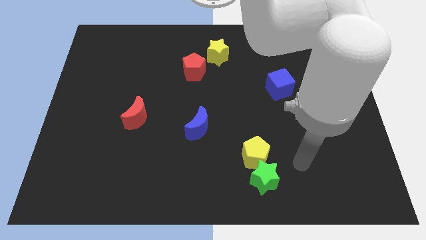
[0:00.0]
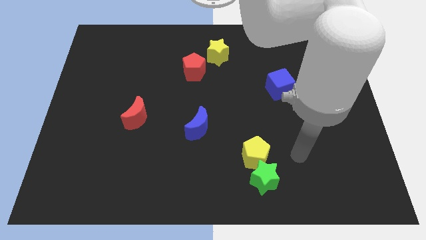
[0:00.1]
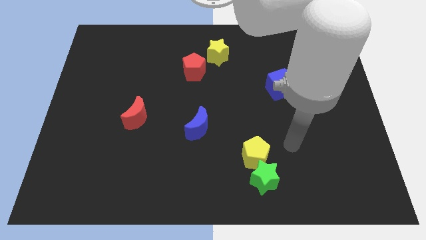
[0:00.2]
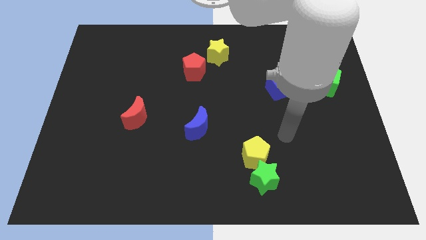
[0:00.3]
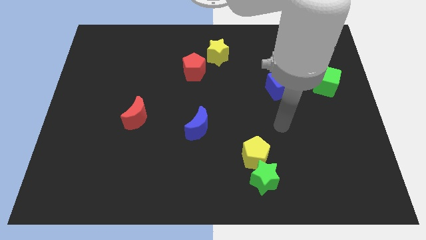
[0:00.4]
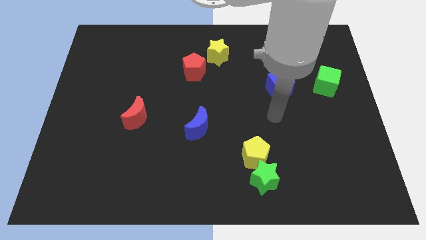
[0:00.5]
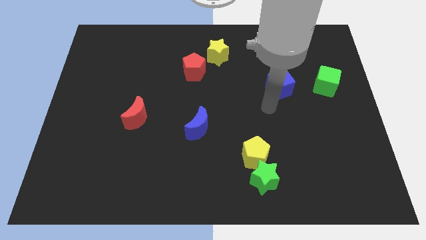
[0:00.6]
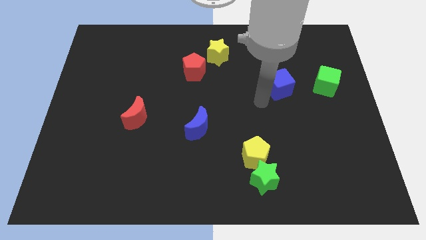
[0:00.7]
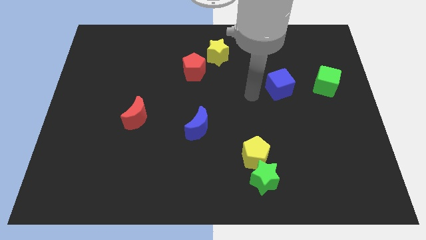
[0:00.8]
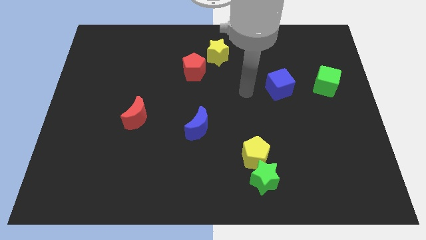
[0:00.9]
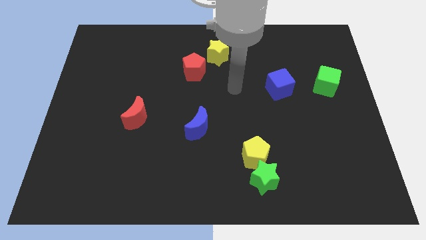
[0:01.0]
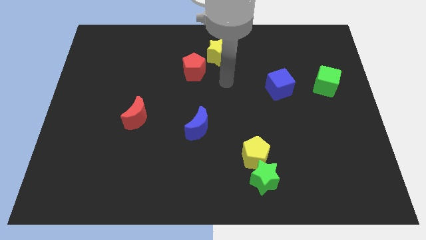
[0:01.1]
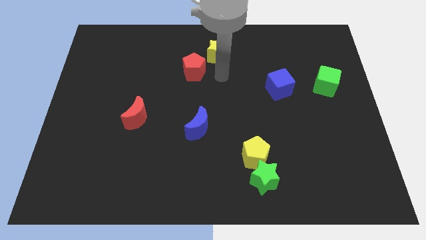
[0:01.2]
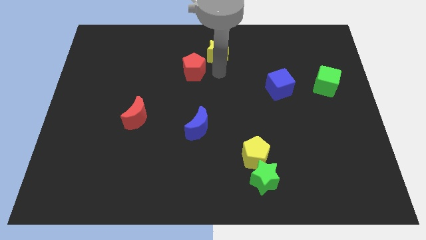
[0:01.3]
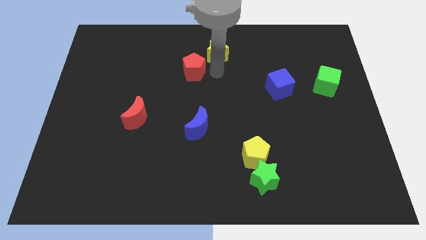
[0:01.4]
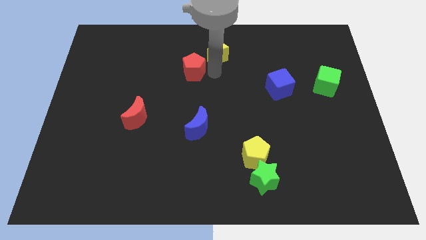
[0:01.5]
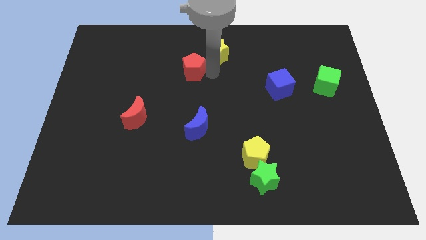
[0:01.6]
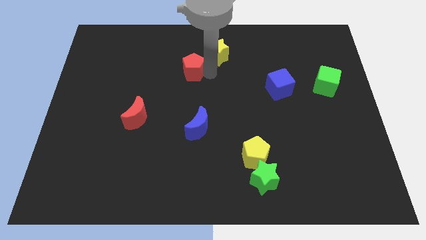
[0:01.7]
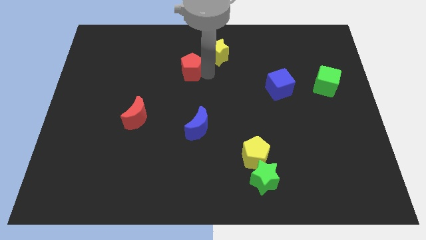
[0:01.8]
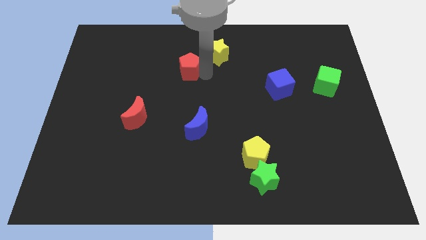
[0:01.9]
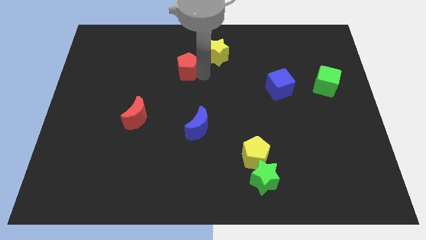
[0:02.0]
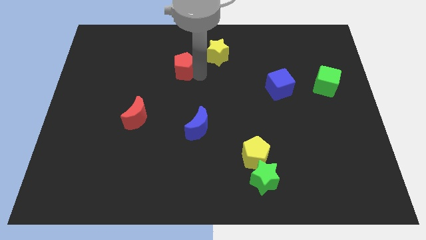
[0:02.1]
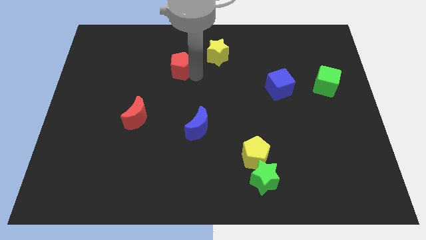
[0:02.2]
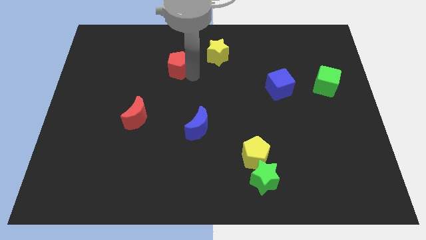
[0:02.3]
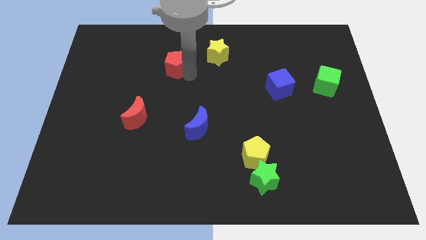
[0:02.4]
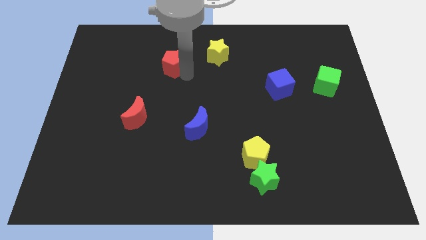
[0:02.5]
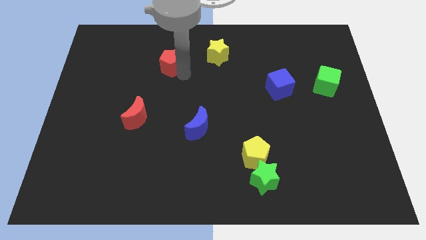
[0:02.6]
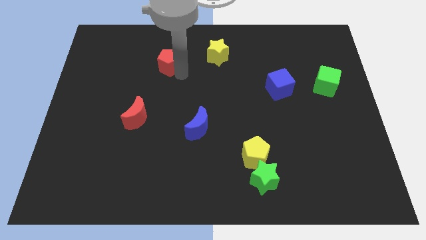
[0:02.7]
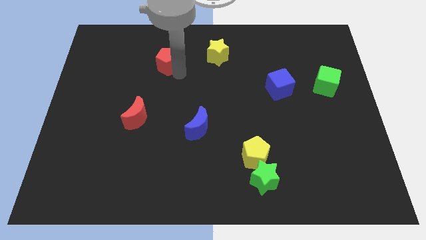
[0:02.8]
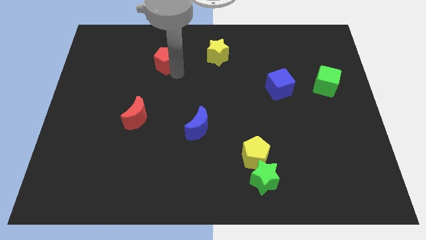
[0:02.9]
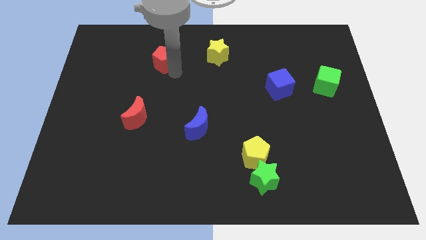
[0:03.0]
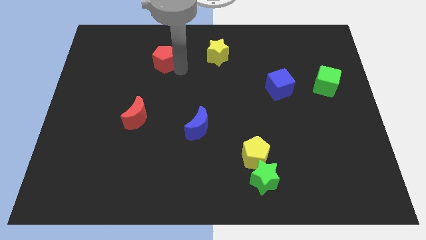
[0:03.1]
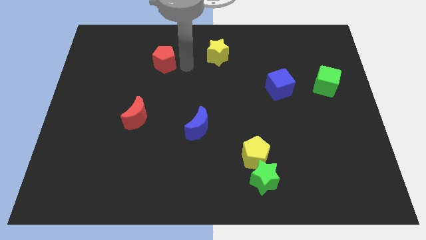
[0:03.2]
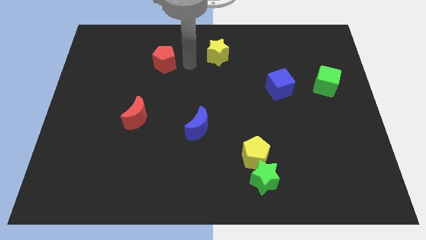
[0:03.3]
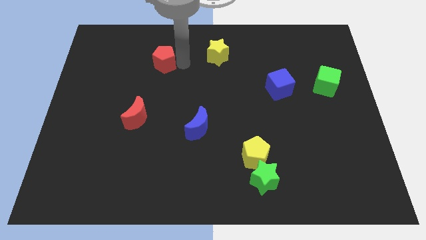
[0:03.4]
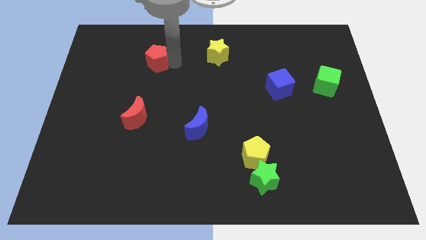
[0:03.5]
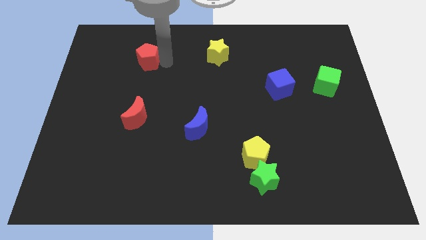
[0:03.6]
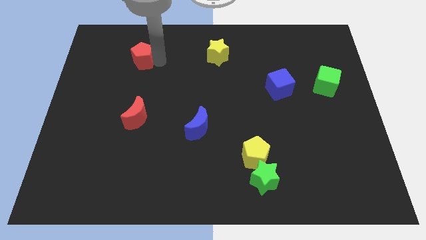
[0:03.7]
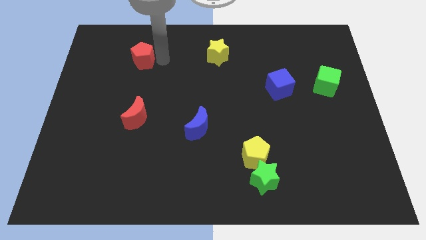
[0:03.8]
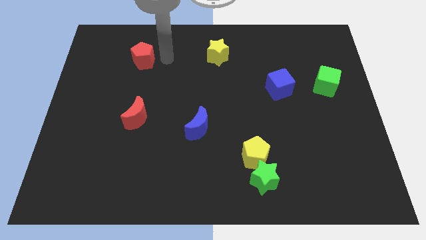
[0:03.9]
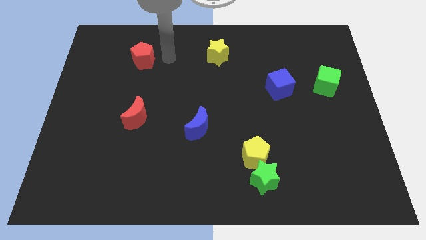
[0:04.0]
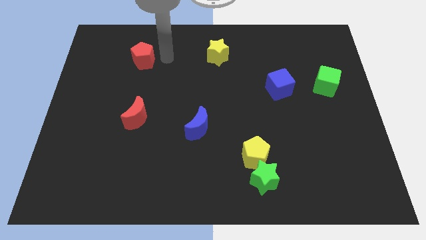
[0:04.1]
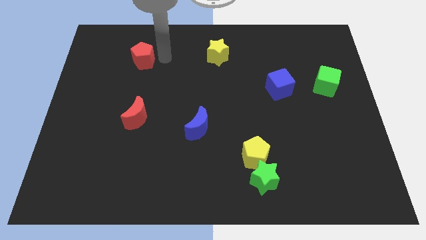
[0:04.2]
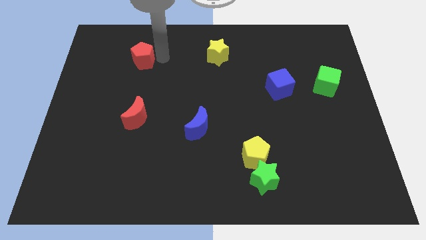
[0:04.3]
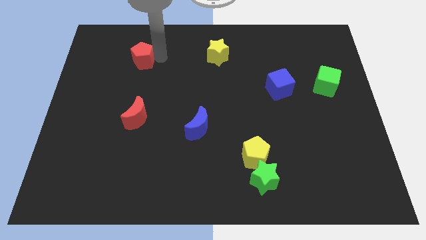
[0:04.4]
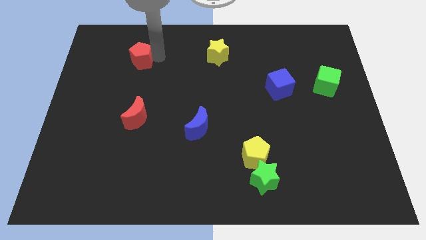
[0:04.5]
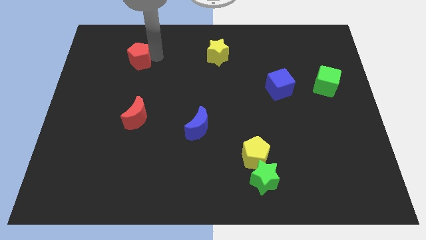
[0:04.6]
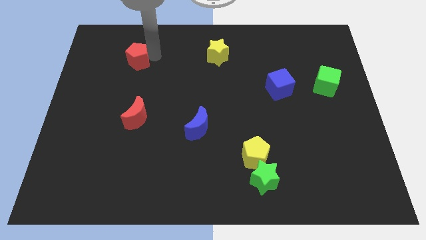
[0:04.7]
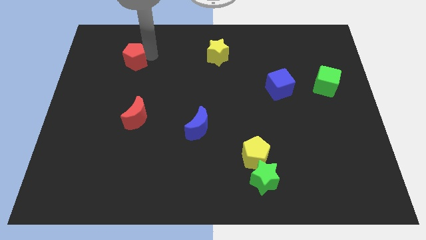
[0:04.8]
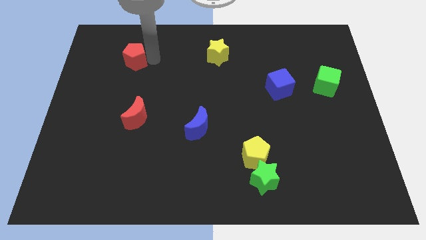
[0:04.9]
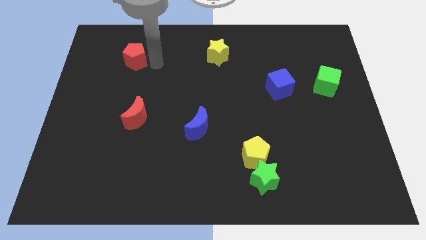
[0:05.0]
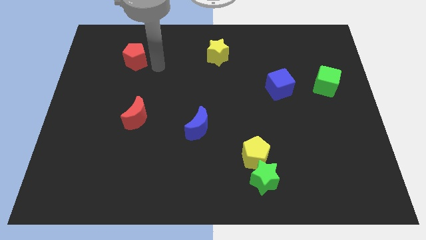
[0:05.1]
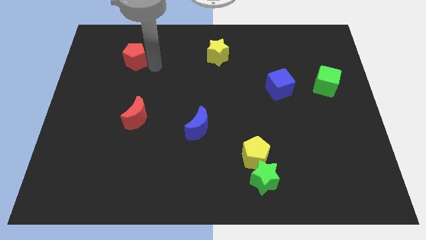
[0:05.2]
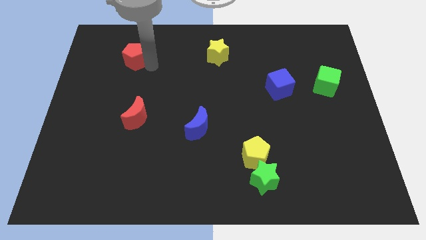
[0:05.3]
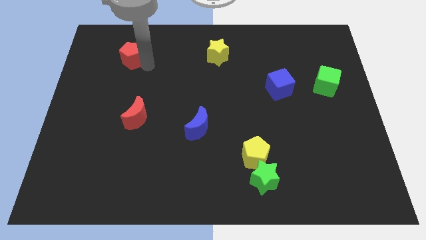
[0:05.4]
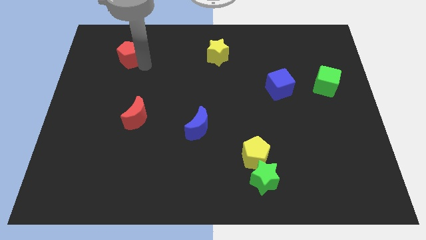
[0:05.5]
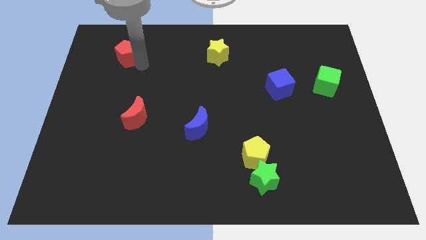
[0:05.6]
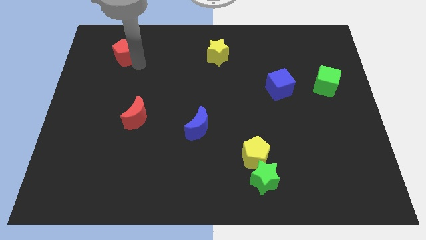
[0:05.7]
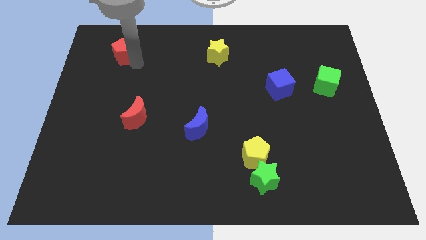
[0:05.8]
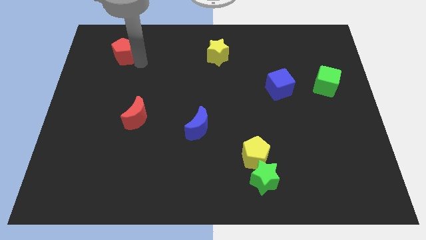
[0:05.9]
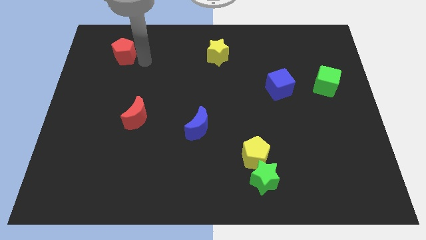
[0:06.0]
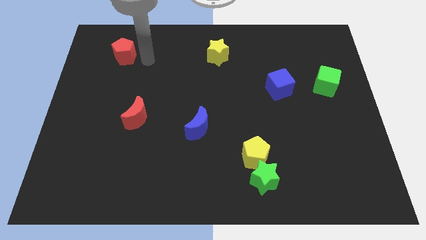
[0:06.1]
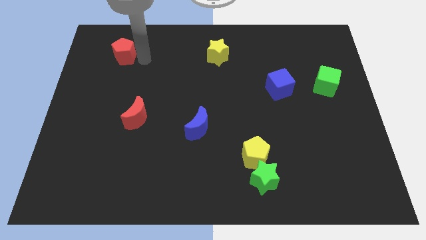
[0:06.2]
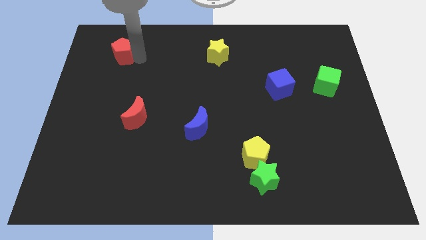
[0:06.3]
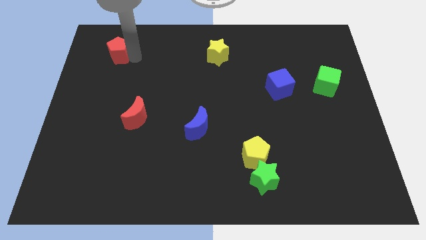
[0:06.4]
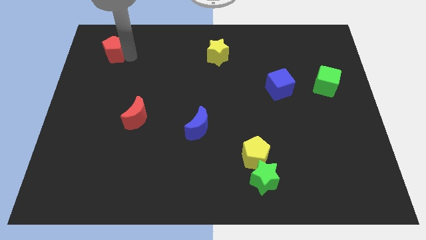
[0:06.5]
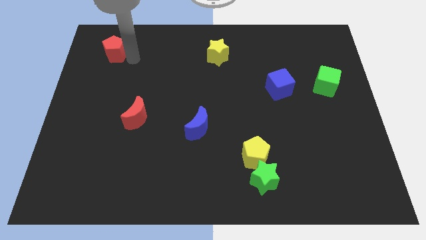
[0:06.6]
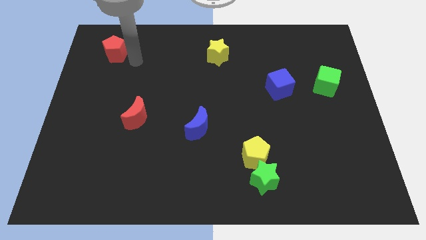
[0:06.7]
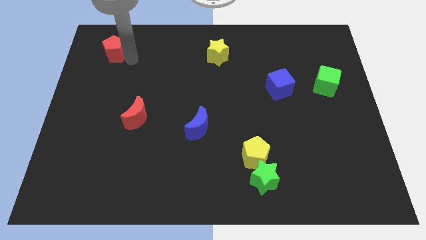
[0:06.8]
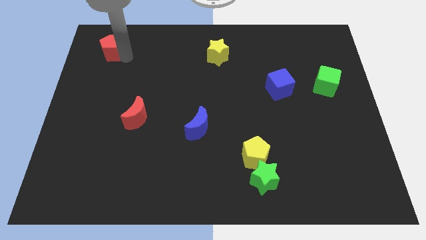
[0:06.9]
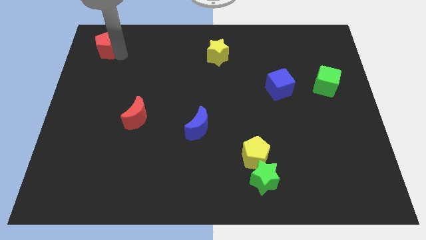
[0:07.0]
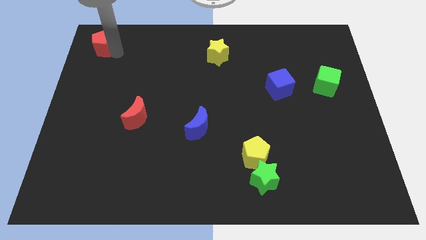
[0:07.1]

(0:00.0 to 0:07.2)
put the red pentagon to the top left corner
